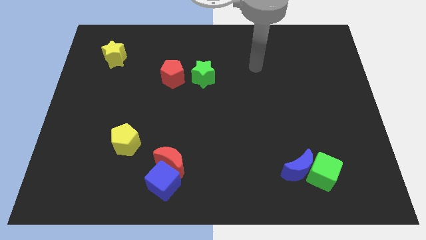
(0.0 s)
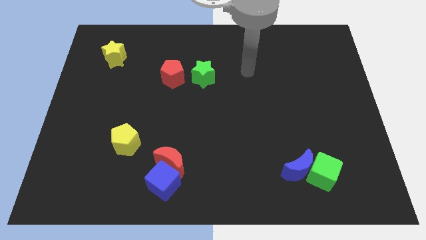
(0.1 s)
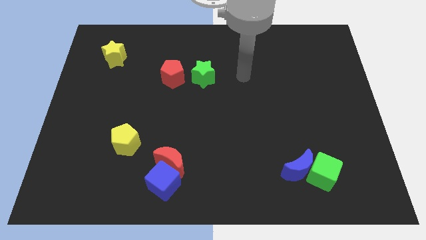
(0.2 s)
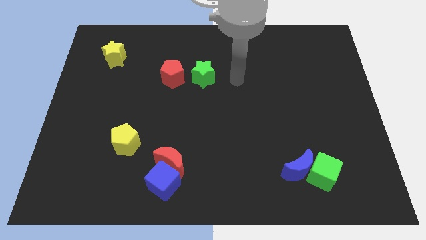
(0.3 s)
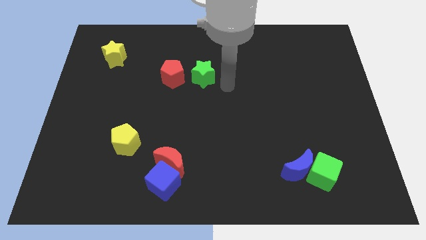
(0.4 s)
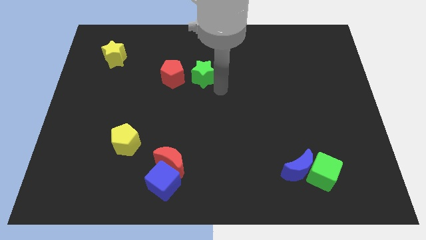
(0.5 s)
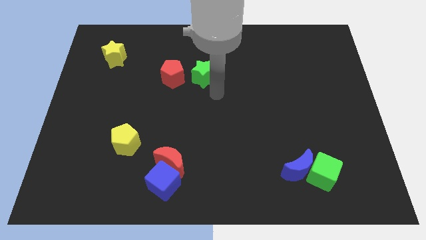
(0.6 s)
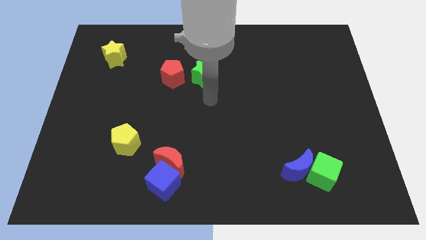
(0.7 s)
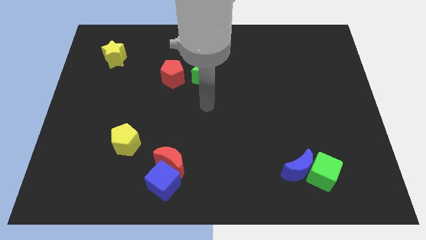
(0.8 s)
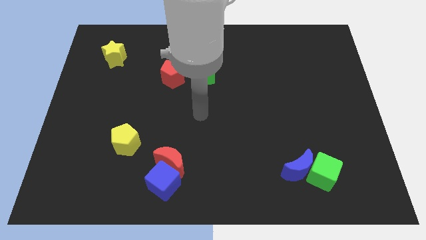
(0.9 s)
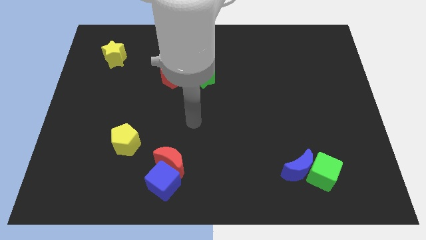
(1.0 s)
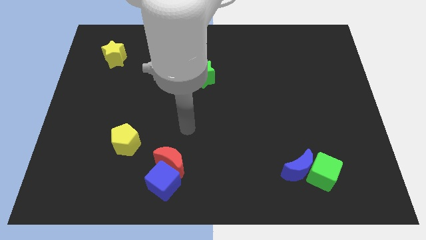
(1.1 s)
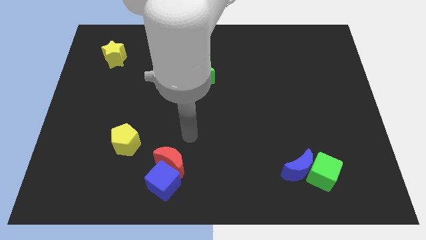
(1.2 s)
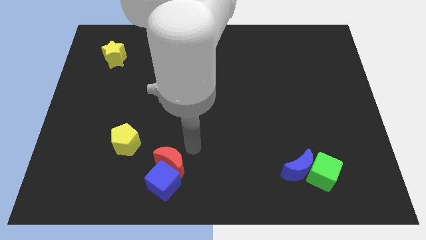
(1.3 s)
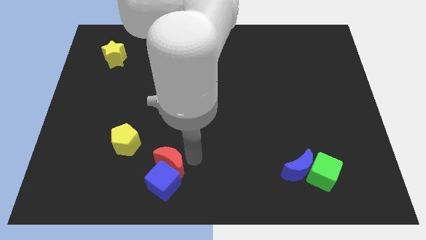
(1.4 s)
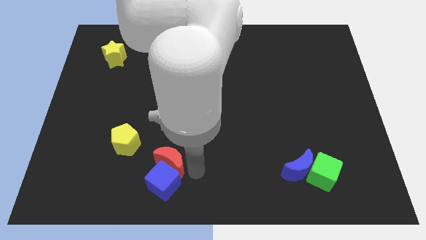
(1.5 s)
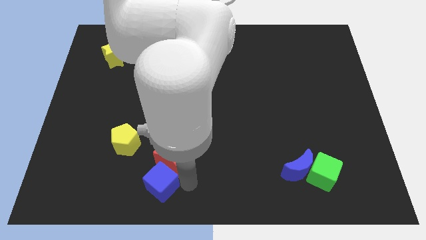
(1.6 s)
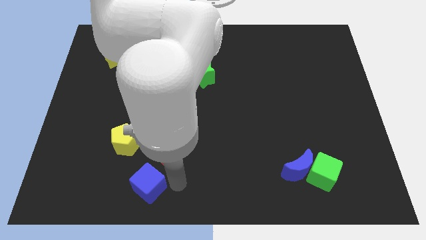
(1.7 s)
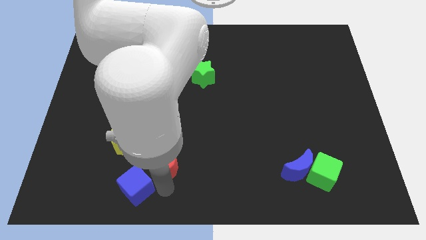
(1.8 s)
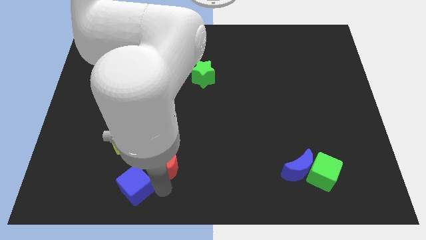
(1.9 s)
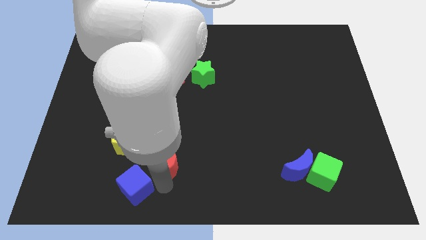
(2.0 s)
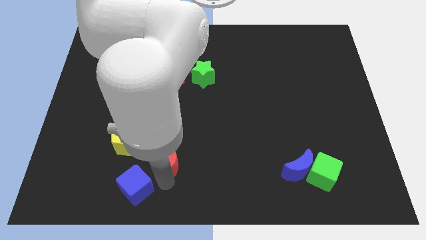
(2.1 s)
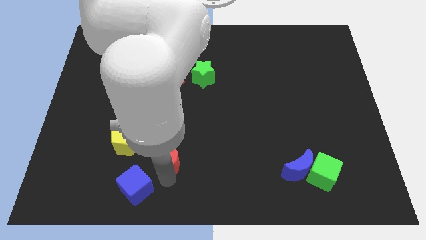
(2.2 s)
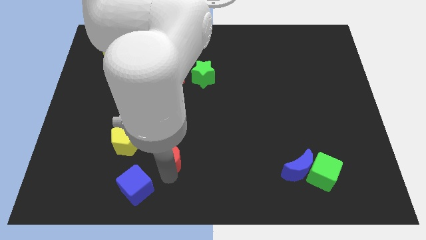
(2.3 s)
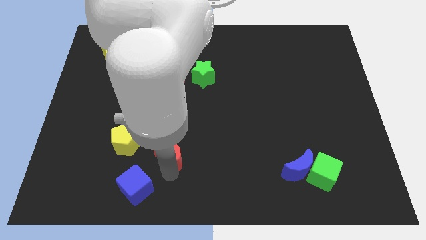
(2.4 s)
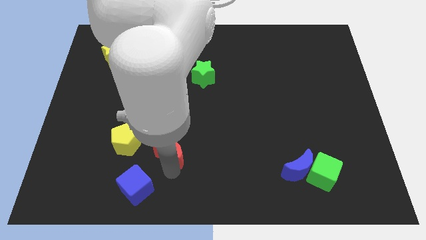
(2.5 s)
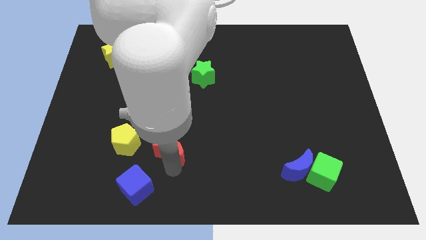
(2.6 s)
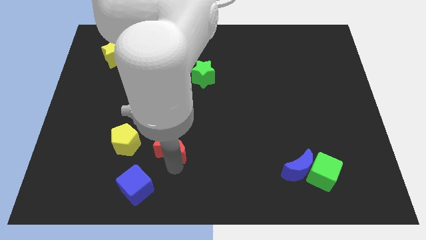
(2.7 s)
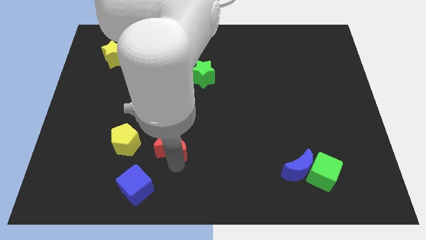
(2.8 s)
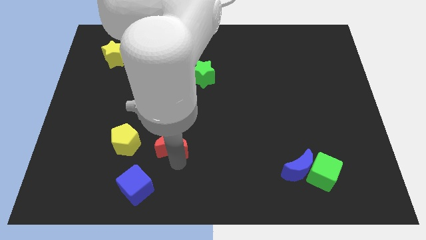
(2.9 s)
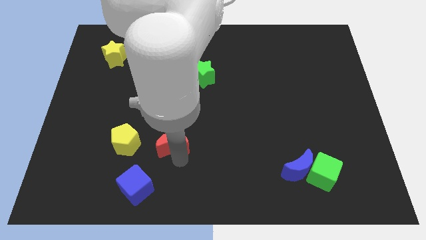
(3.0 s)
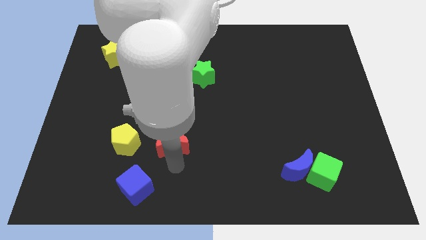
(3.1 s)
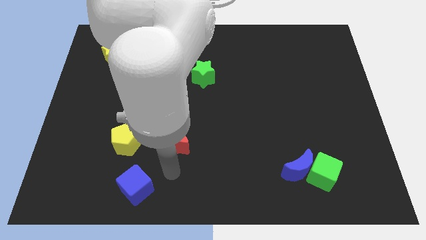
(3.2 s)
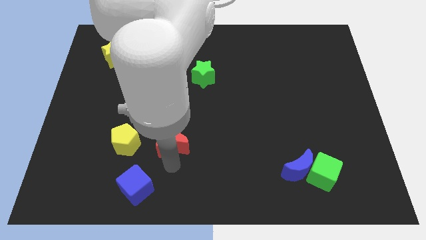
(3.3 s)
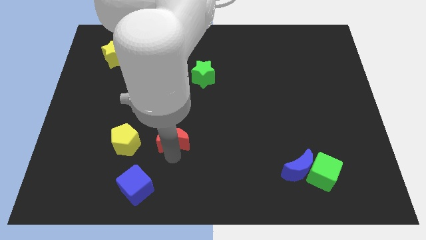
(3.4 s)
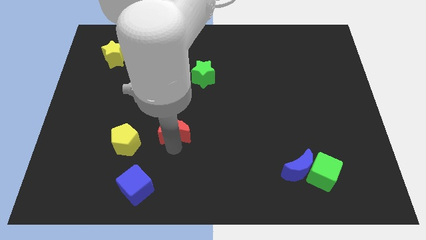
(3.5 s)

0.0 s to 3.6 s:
move the red moon upwards a little

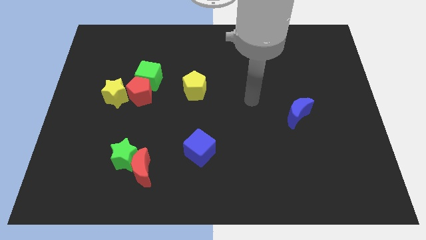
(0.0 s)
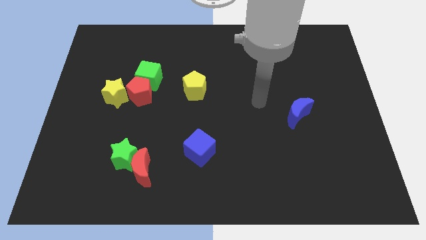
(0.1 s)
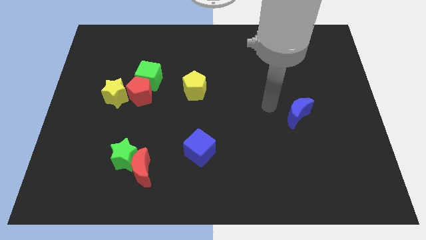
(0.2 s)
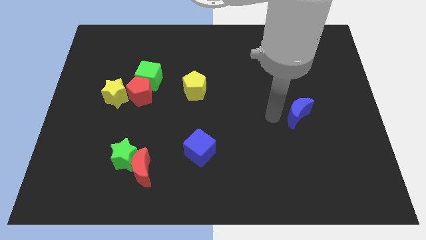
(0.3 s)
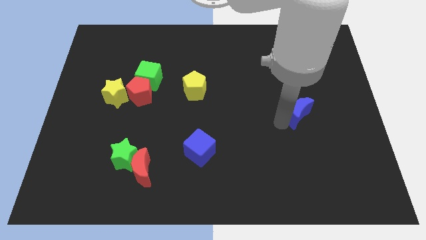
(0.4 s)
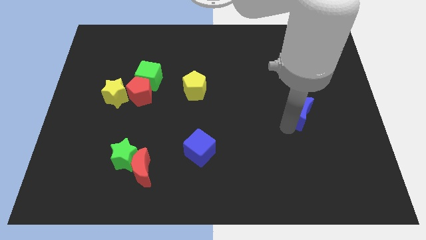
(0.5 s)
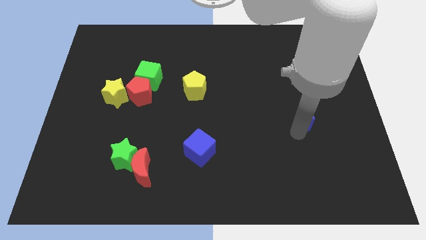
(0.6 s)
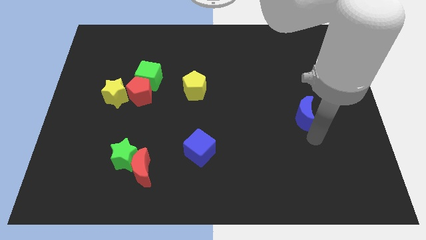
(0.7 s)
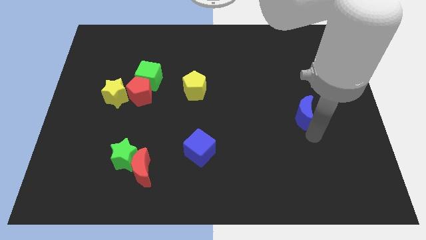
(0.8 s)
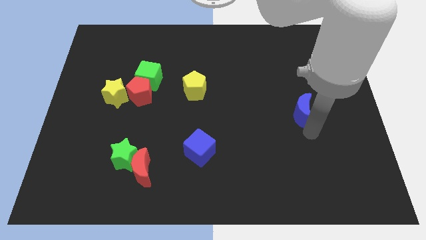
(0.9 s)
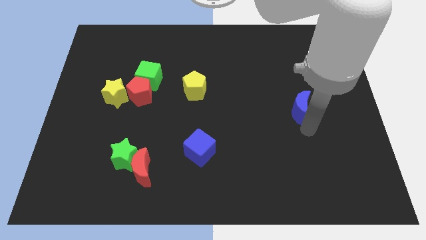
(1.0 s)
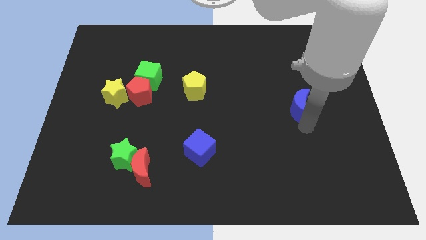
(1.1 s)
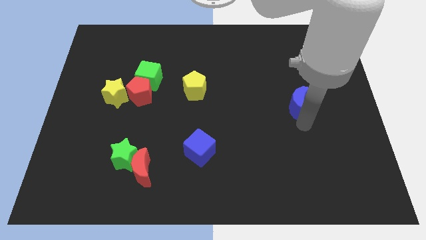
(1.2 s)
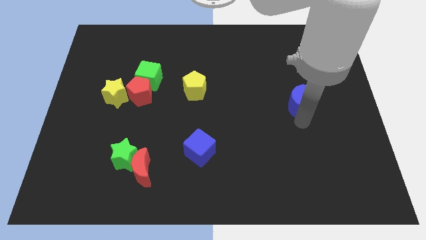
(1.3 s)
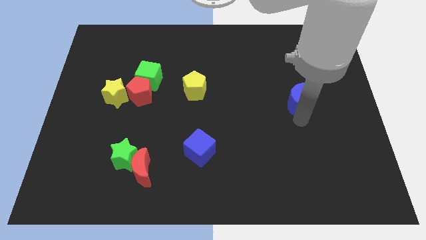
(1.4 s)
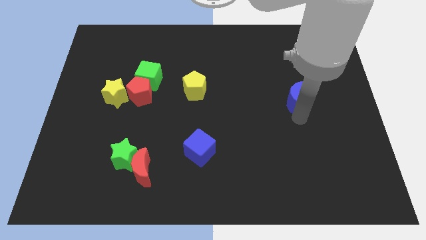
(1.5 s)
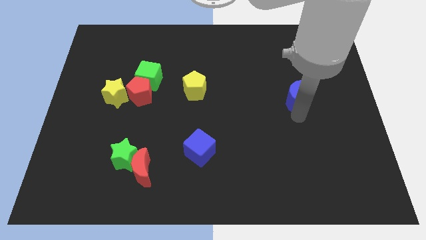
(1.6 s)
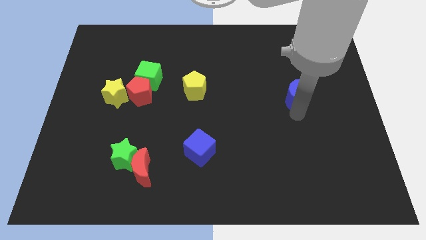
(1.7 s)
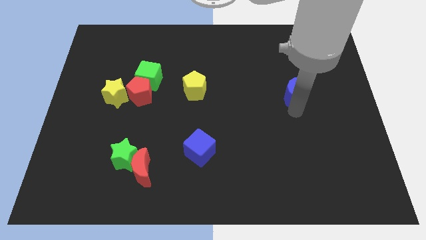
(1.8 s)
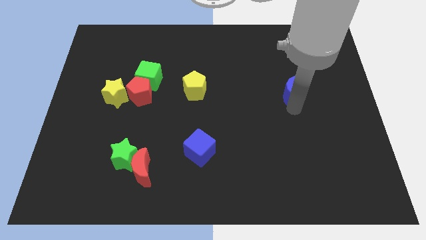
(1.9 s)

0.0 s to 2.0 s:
move the blue moon slightly upwards

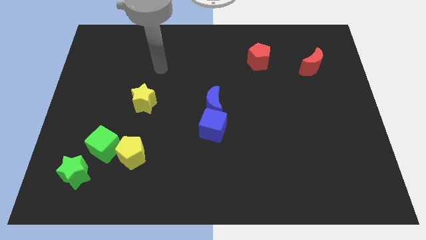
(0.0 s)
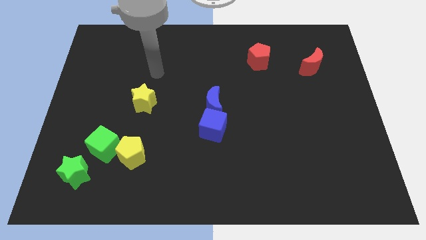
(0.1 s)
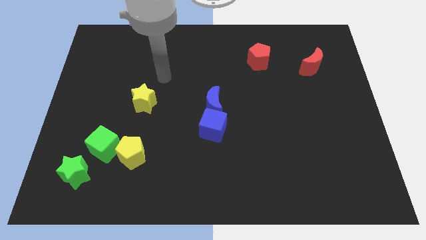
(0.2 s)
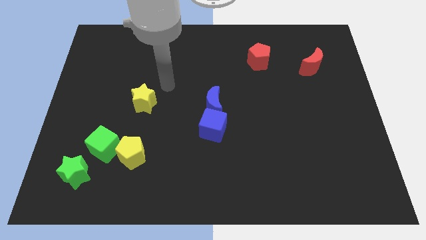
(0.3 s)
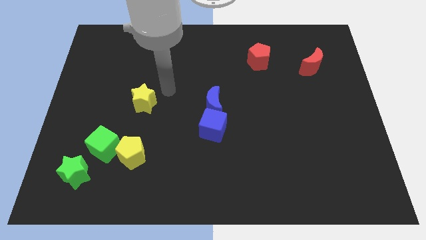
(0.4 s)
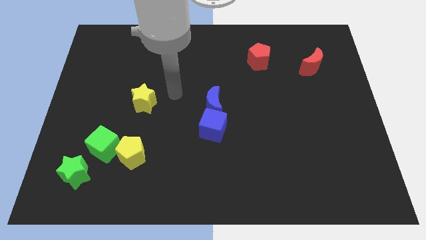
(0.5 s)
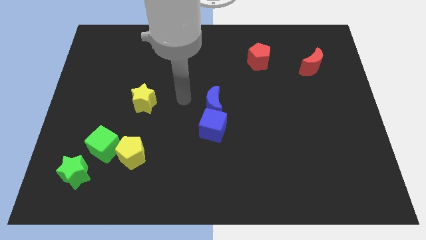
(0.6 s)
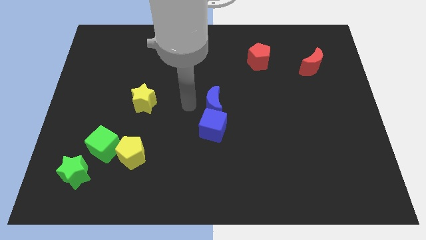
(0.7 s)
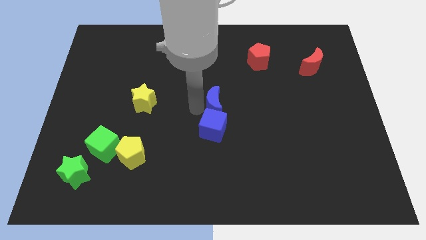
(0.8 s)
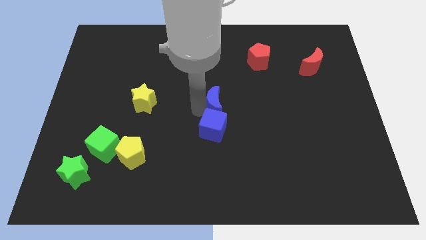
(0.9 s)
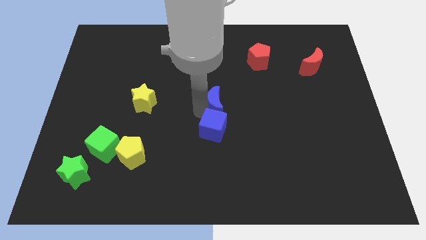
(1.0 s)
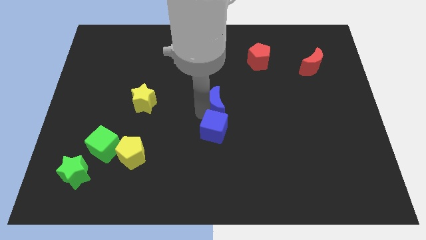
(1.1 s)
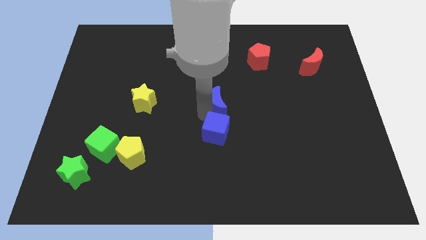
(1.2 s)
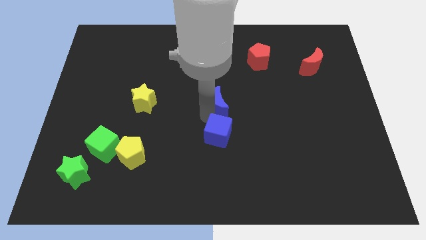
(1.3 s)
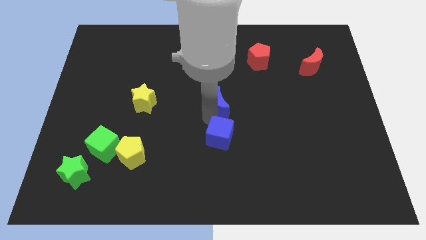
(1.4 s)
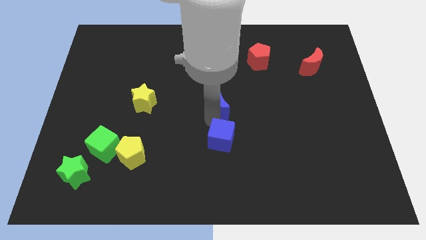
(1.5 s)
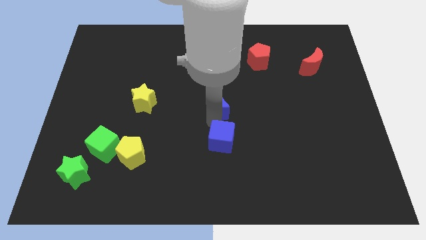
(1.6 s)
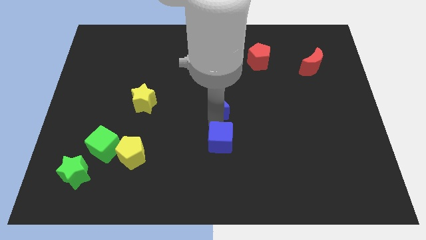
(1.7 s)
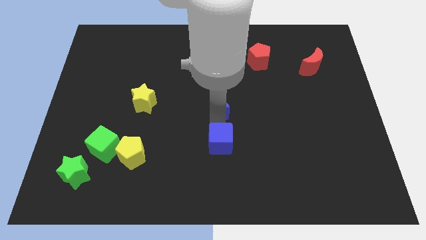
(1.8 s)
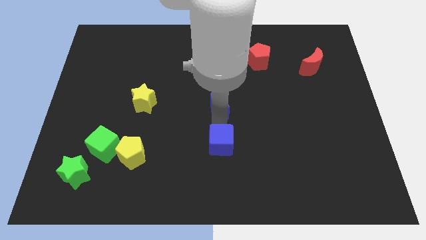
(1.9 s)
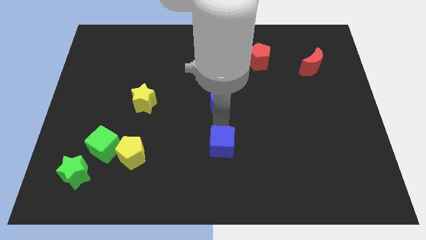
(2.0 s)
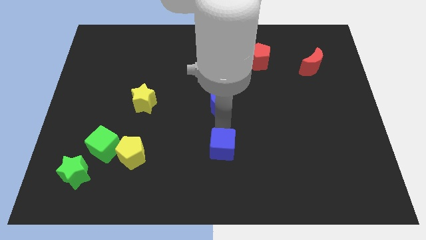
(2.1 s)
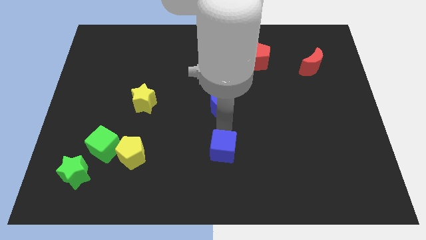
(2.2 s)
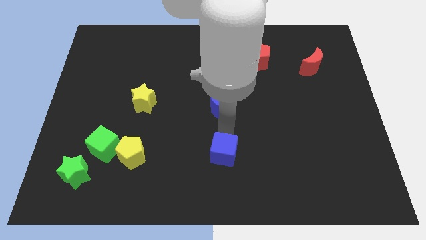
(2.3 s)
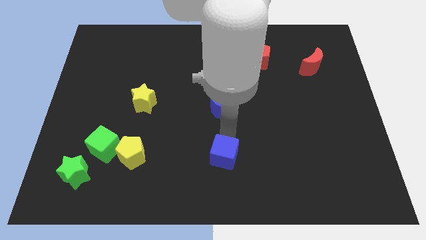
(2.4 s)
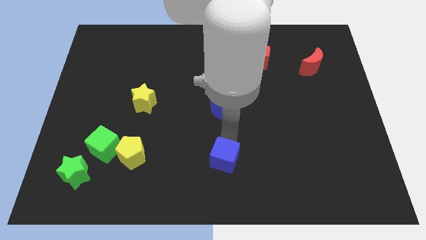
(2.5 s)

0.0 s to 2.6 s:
slide the blue cube a bit downwards and then right
